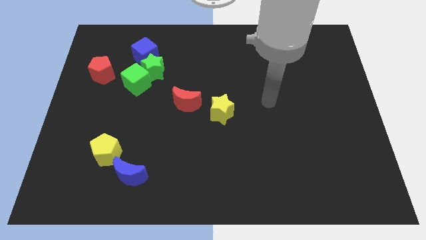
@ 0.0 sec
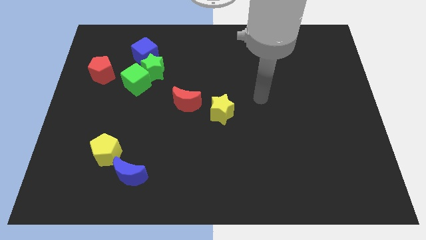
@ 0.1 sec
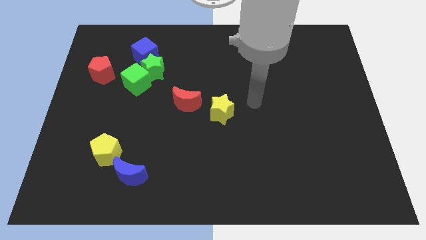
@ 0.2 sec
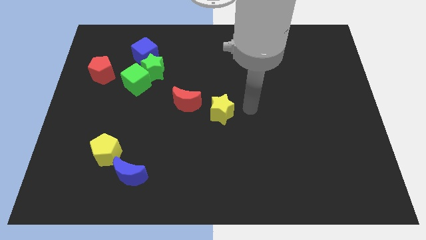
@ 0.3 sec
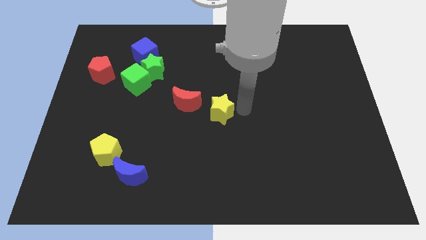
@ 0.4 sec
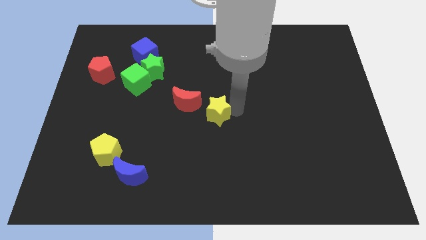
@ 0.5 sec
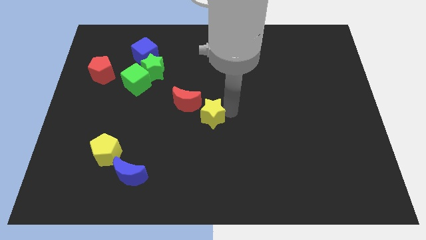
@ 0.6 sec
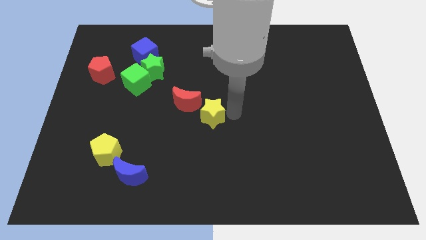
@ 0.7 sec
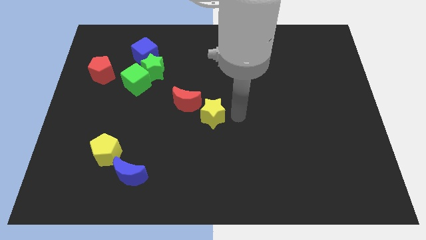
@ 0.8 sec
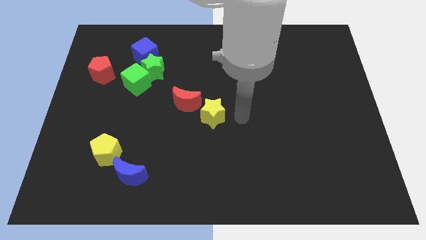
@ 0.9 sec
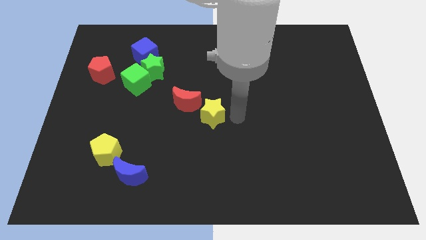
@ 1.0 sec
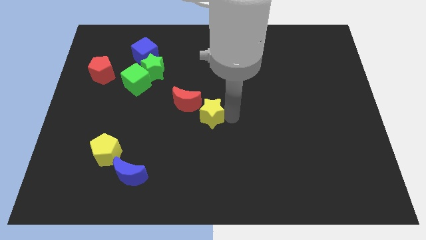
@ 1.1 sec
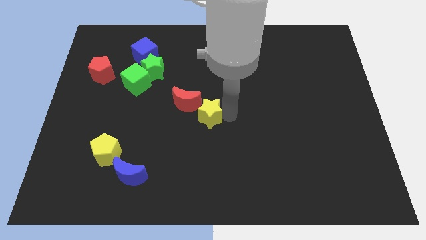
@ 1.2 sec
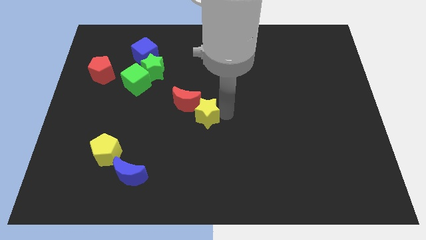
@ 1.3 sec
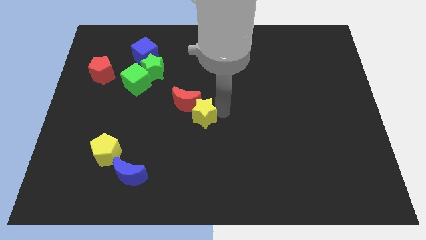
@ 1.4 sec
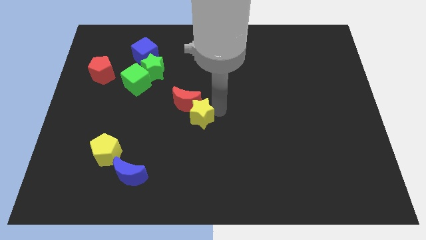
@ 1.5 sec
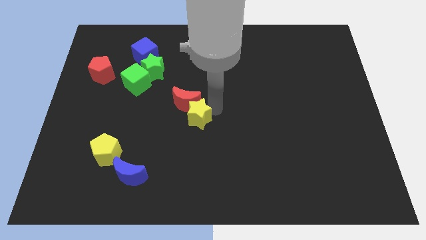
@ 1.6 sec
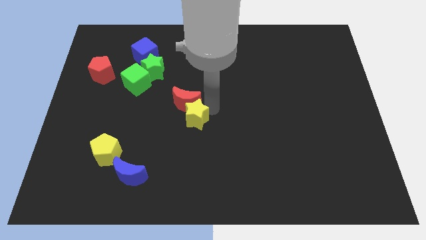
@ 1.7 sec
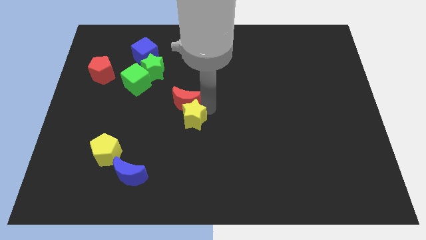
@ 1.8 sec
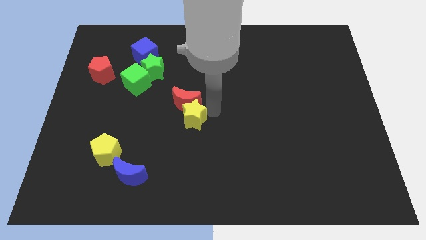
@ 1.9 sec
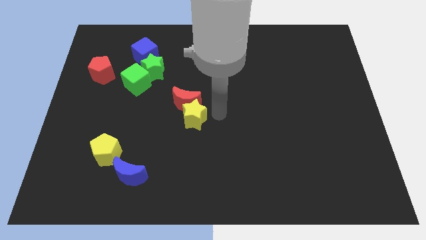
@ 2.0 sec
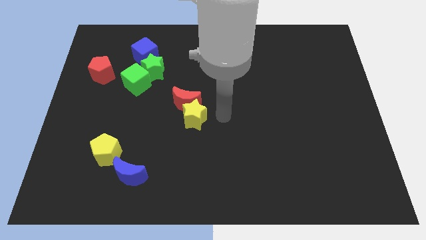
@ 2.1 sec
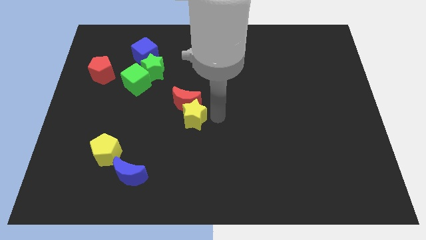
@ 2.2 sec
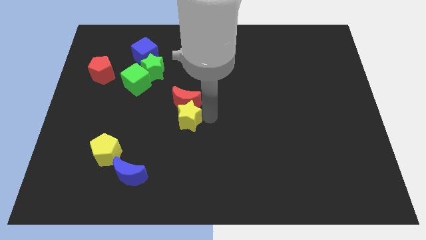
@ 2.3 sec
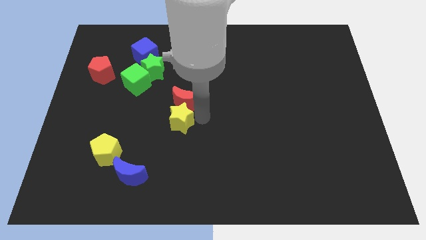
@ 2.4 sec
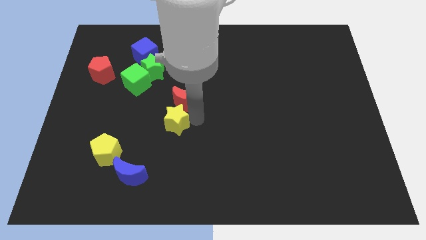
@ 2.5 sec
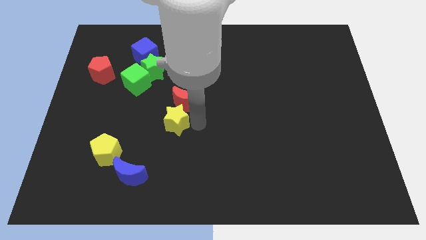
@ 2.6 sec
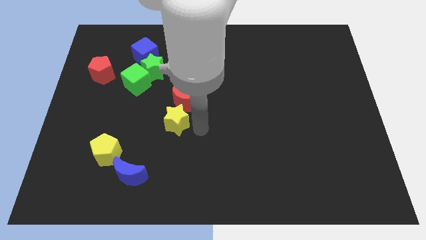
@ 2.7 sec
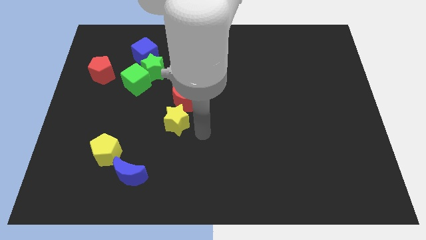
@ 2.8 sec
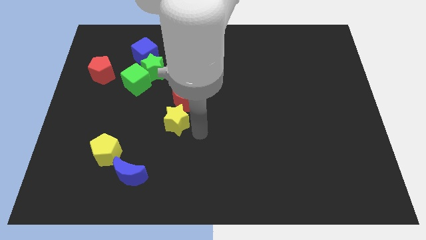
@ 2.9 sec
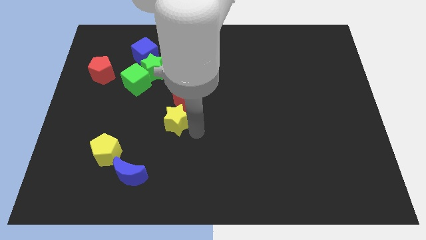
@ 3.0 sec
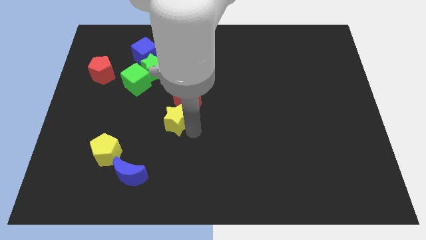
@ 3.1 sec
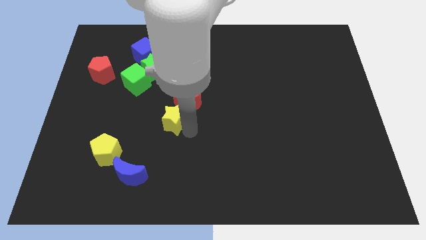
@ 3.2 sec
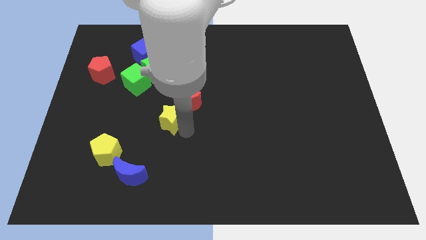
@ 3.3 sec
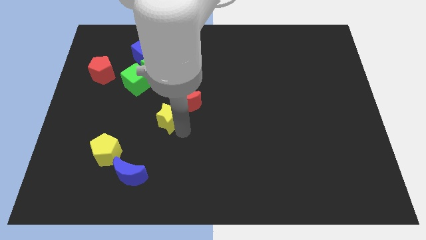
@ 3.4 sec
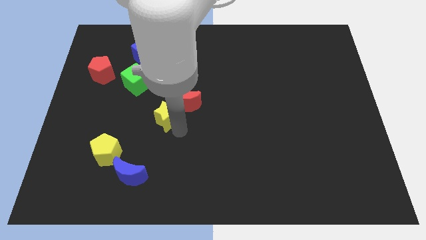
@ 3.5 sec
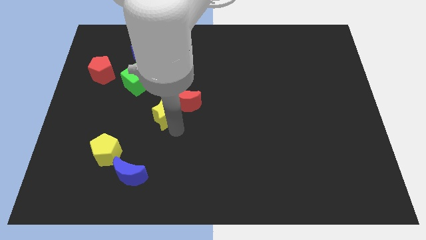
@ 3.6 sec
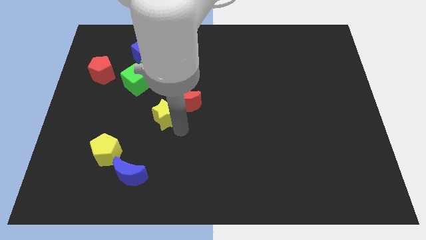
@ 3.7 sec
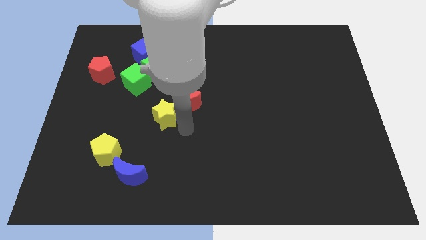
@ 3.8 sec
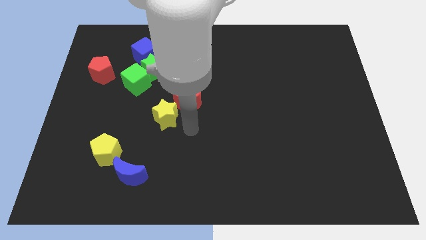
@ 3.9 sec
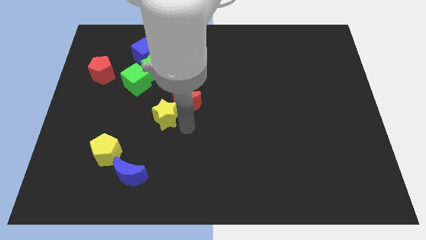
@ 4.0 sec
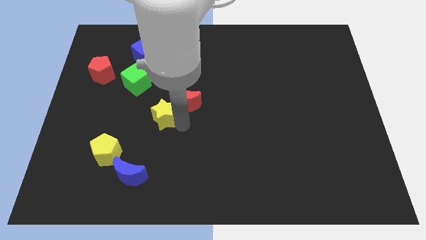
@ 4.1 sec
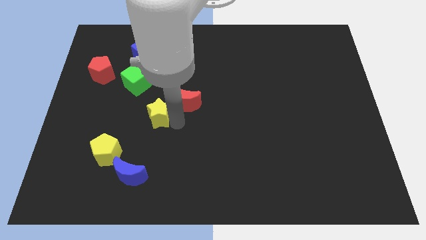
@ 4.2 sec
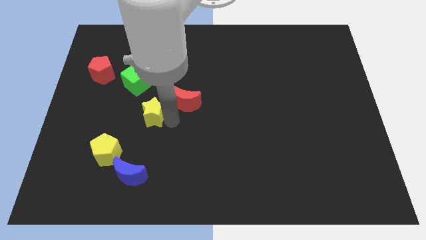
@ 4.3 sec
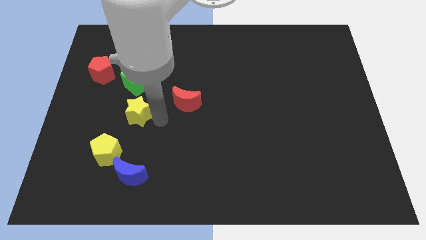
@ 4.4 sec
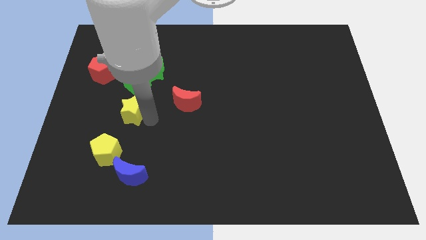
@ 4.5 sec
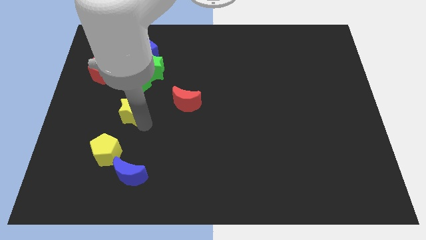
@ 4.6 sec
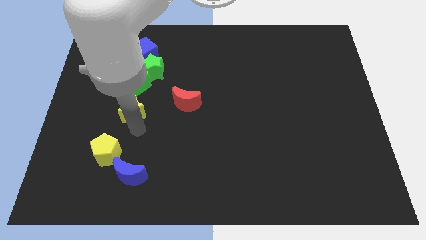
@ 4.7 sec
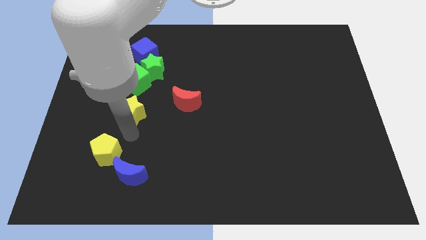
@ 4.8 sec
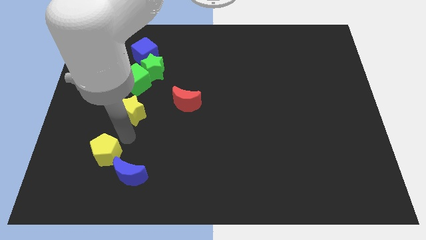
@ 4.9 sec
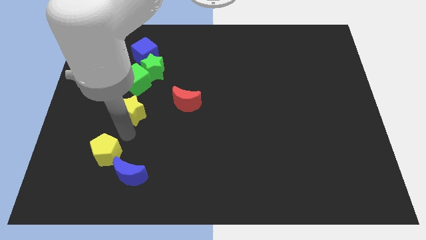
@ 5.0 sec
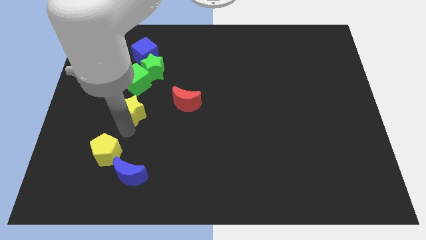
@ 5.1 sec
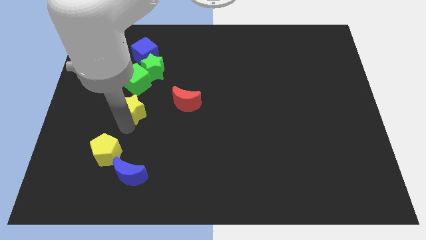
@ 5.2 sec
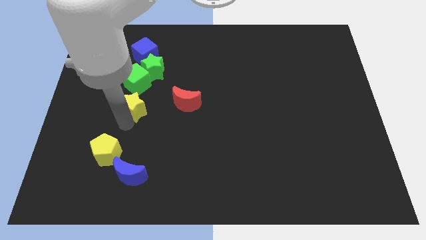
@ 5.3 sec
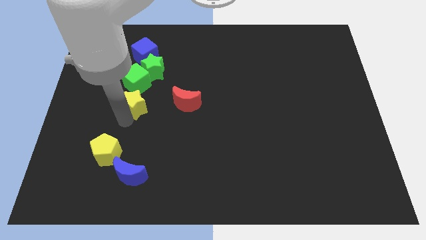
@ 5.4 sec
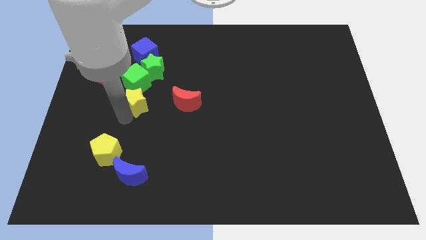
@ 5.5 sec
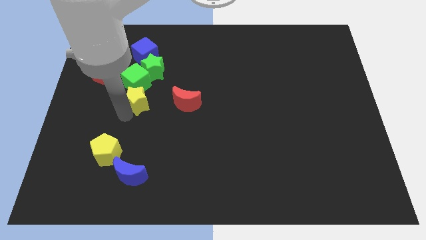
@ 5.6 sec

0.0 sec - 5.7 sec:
move the yellow star to the bottom of the blue cube
